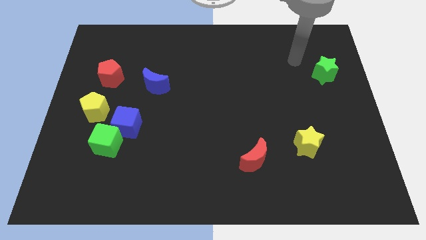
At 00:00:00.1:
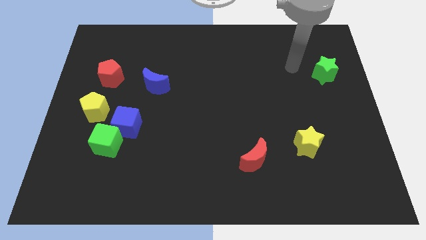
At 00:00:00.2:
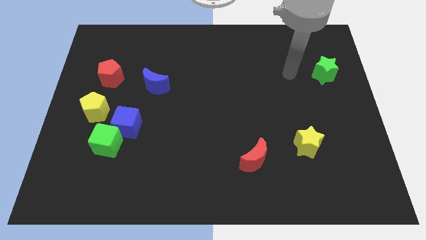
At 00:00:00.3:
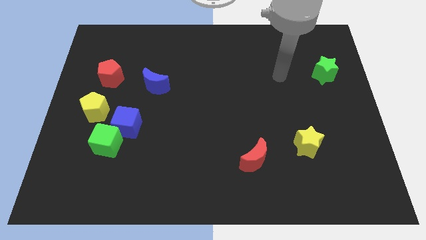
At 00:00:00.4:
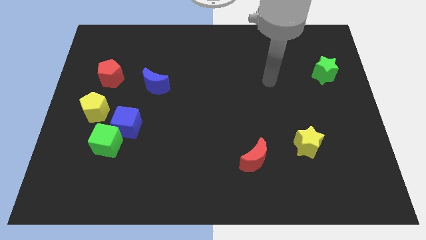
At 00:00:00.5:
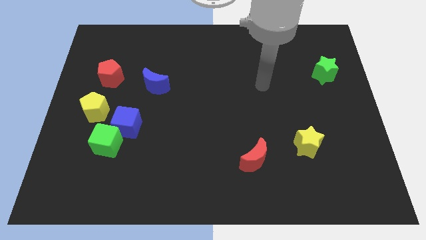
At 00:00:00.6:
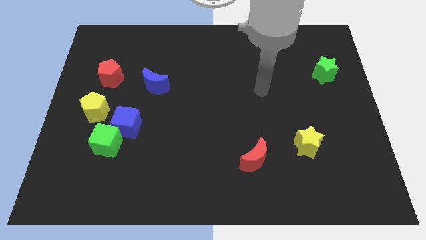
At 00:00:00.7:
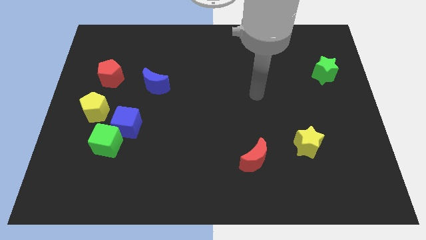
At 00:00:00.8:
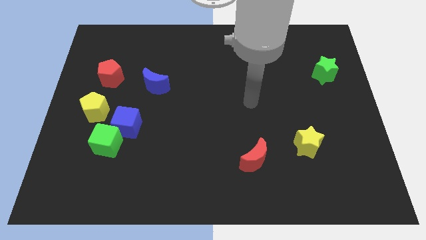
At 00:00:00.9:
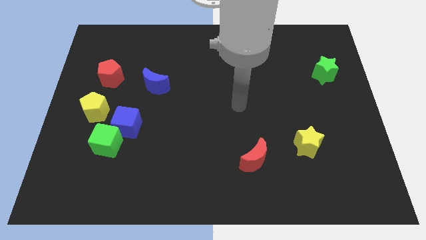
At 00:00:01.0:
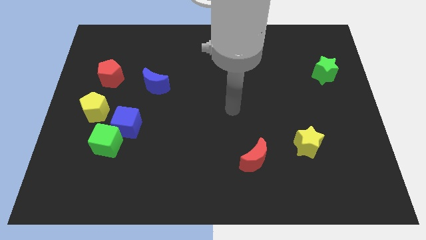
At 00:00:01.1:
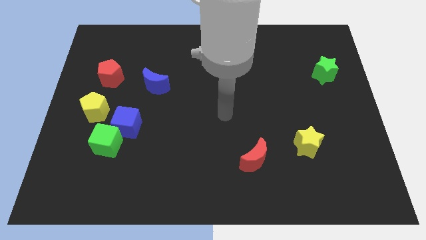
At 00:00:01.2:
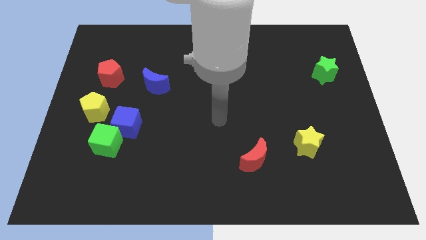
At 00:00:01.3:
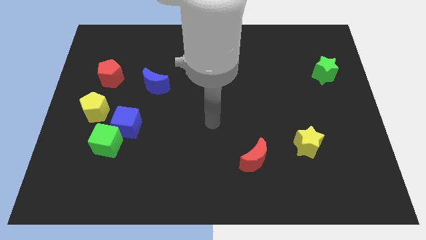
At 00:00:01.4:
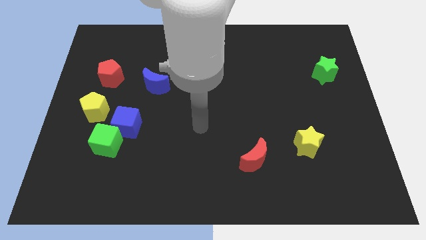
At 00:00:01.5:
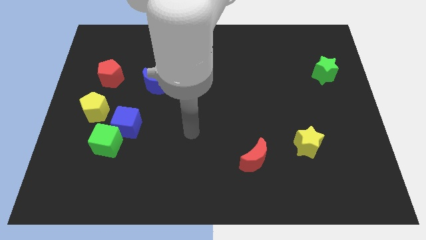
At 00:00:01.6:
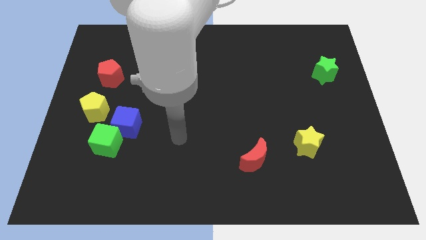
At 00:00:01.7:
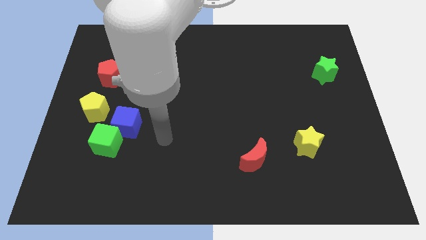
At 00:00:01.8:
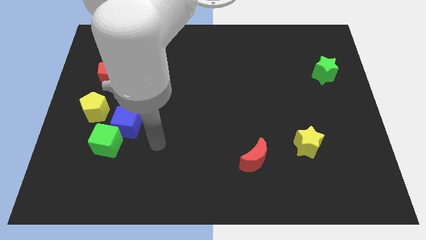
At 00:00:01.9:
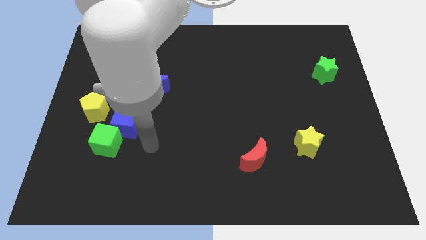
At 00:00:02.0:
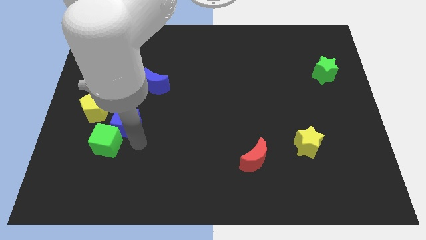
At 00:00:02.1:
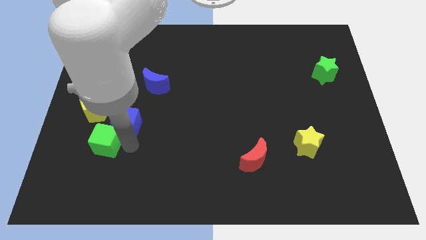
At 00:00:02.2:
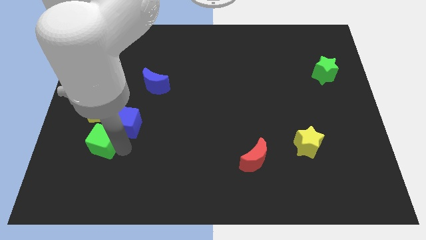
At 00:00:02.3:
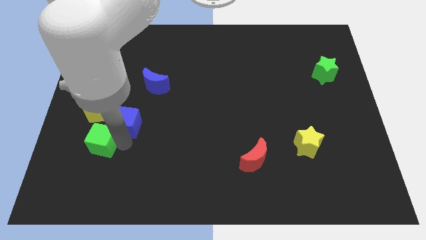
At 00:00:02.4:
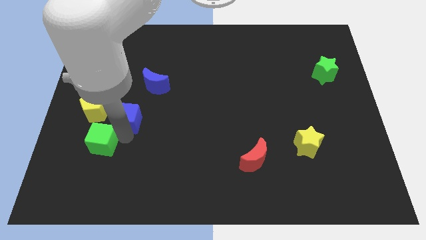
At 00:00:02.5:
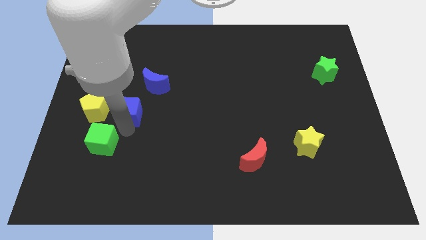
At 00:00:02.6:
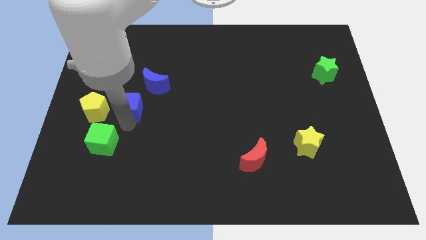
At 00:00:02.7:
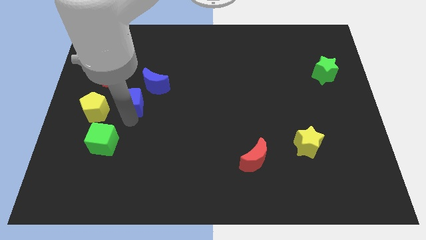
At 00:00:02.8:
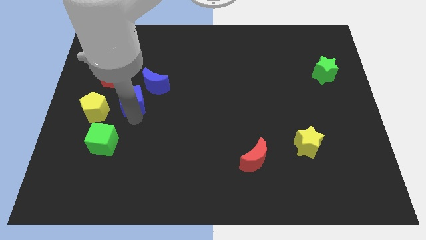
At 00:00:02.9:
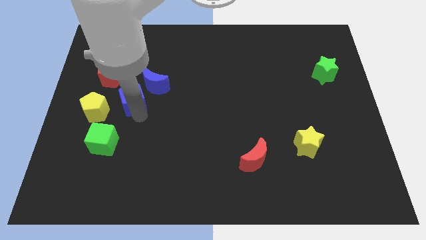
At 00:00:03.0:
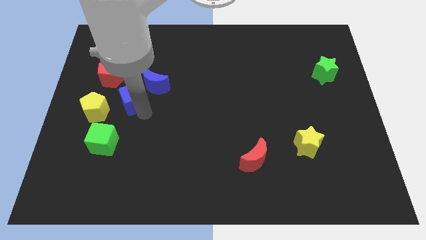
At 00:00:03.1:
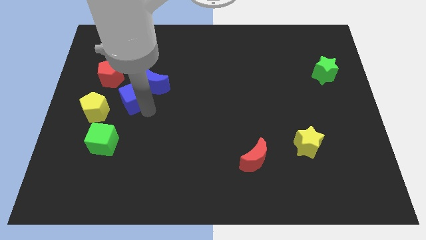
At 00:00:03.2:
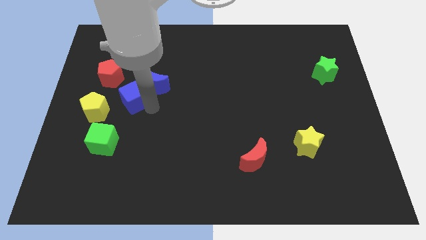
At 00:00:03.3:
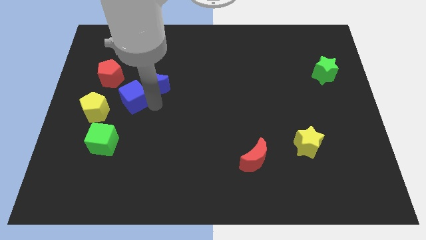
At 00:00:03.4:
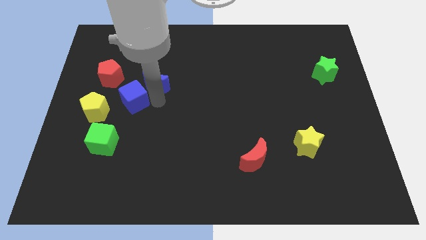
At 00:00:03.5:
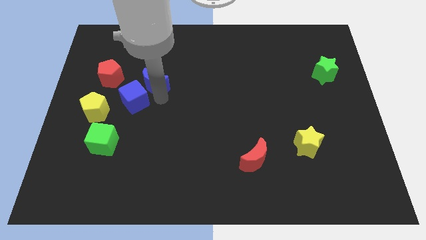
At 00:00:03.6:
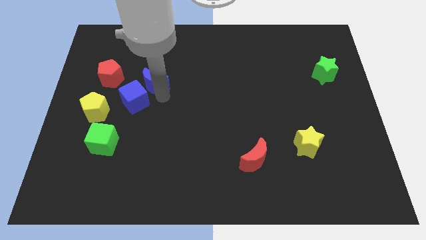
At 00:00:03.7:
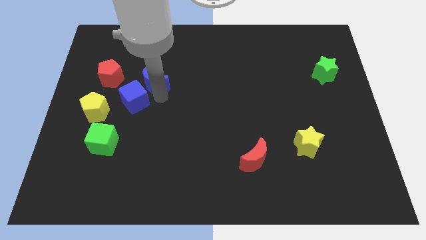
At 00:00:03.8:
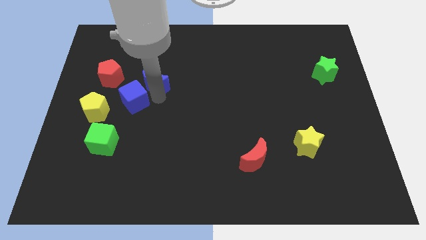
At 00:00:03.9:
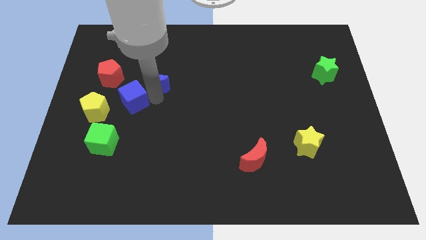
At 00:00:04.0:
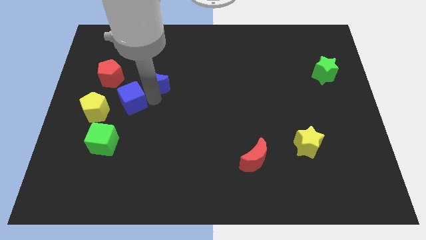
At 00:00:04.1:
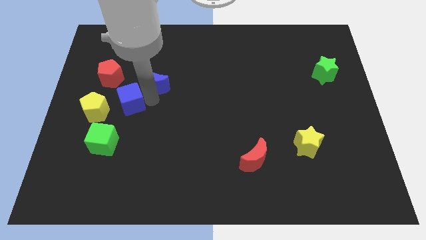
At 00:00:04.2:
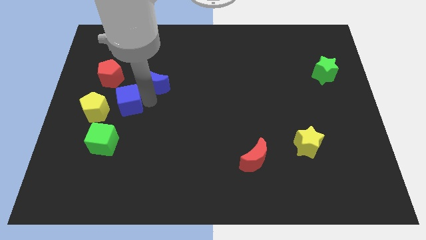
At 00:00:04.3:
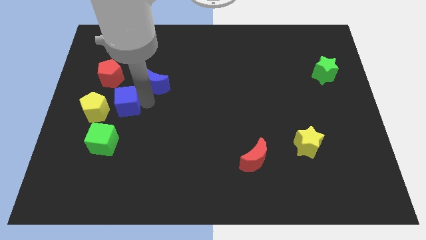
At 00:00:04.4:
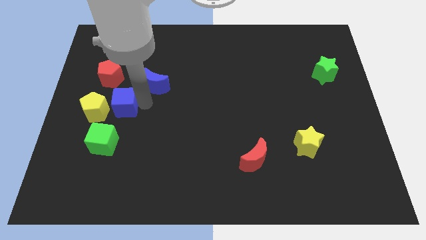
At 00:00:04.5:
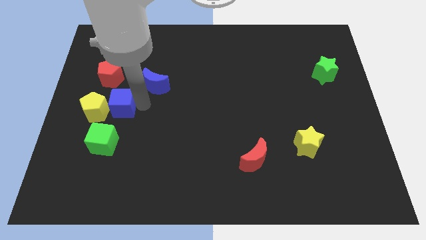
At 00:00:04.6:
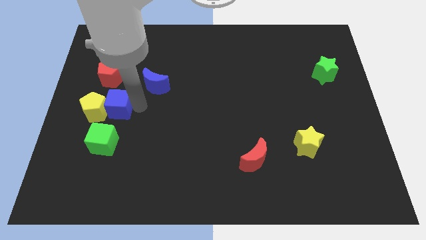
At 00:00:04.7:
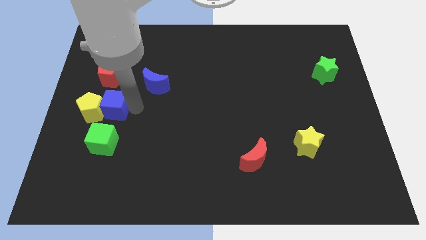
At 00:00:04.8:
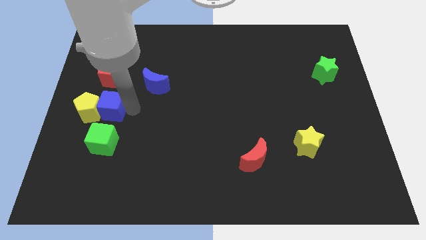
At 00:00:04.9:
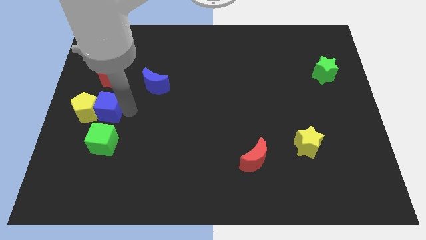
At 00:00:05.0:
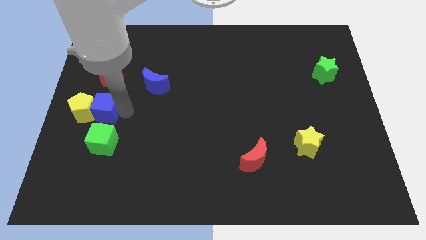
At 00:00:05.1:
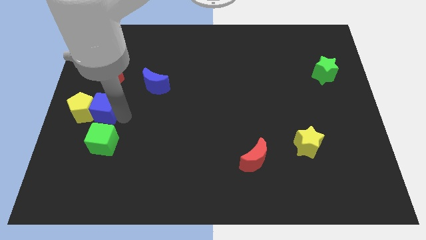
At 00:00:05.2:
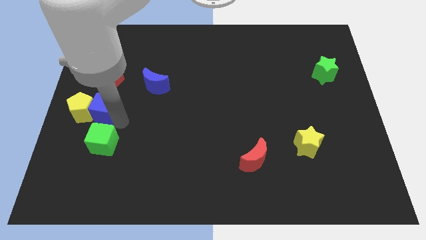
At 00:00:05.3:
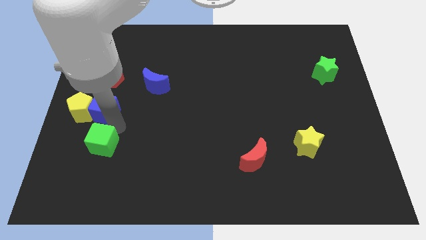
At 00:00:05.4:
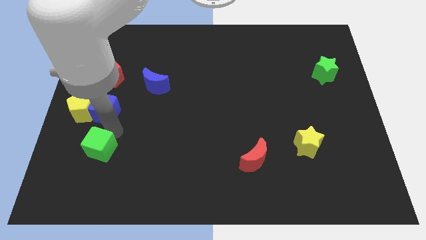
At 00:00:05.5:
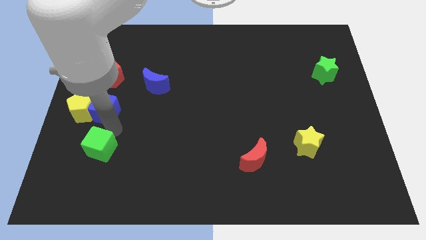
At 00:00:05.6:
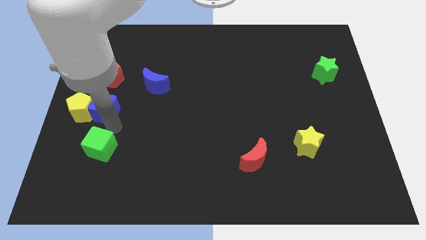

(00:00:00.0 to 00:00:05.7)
slide the blue cube to the left side of the board

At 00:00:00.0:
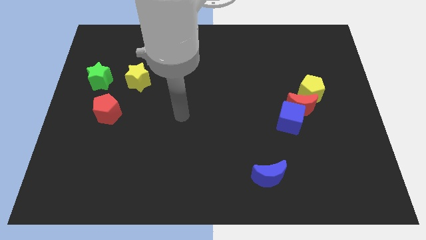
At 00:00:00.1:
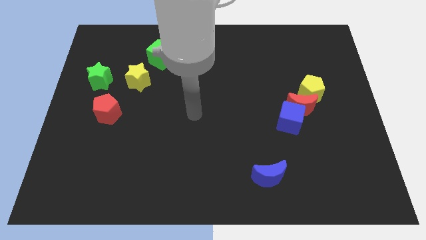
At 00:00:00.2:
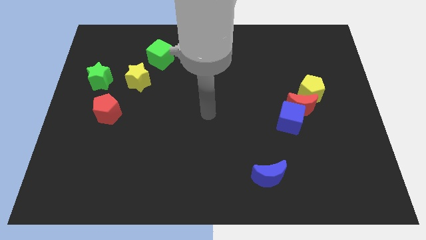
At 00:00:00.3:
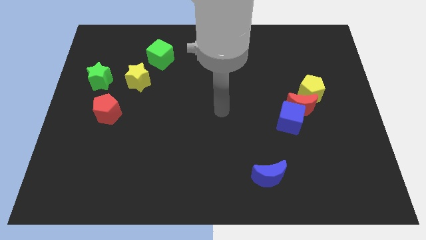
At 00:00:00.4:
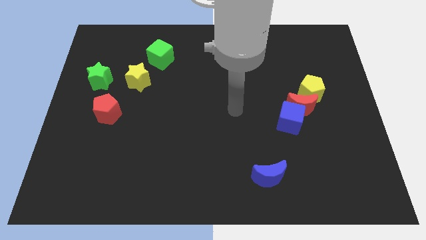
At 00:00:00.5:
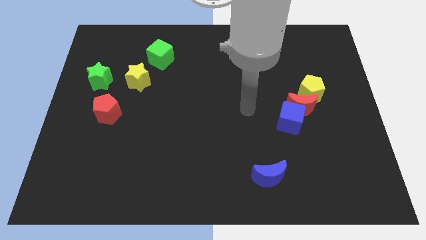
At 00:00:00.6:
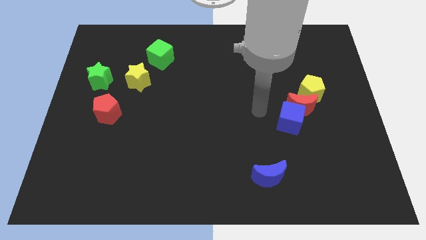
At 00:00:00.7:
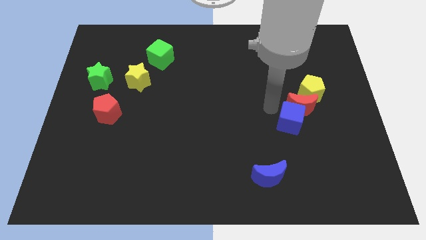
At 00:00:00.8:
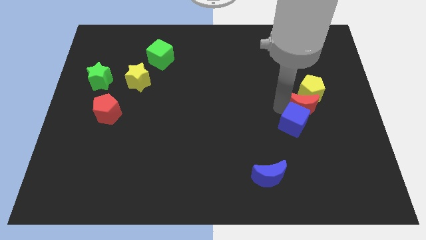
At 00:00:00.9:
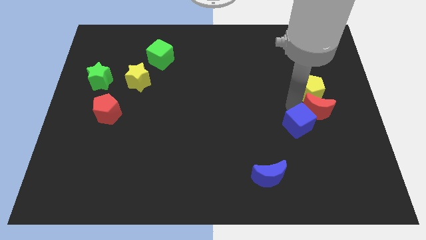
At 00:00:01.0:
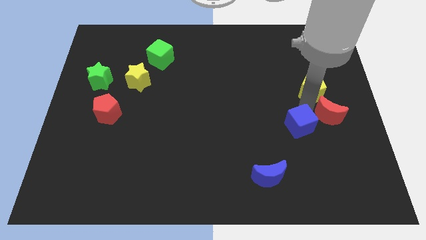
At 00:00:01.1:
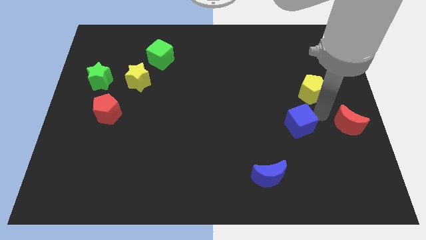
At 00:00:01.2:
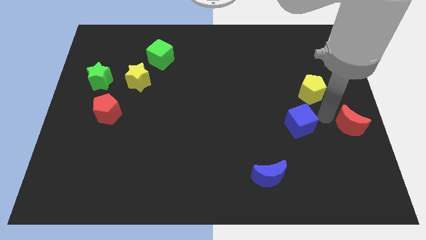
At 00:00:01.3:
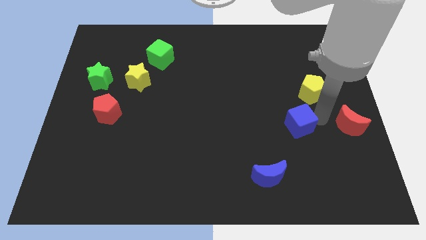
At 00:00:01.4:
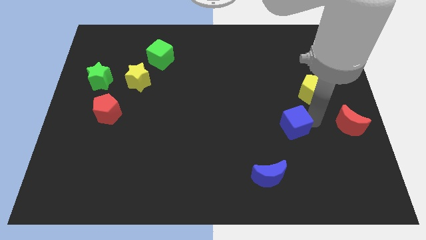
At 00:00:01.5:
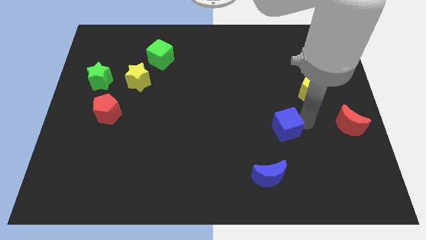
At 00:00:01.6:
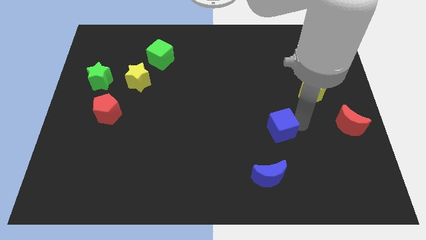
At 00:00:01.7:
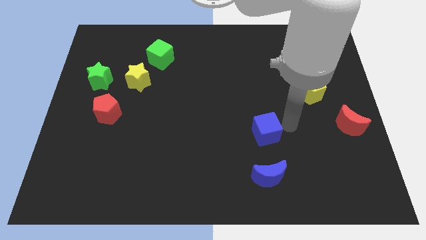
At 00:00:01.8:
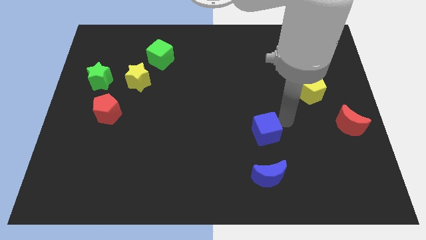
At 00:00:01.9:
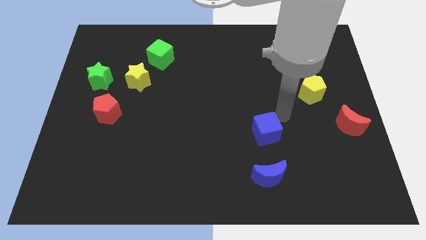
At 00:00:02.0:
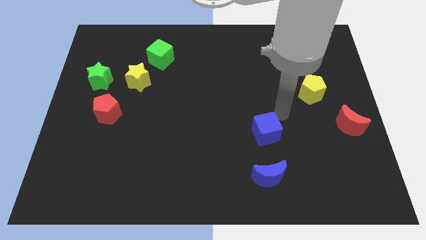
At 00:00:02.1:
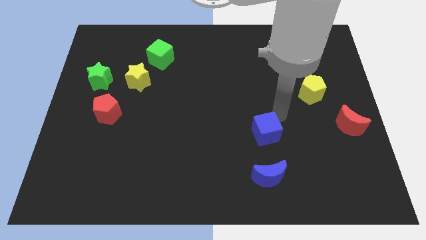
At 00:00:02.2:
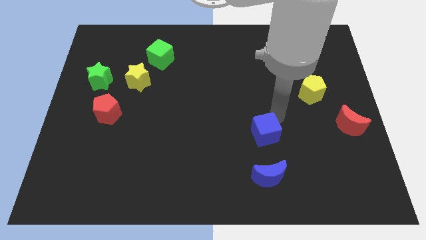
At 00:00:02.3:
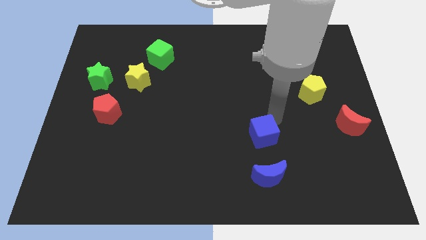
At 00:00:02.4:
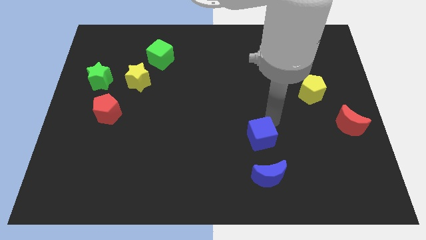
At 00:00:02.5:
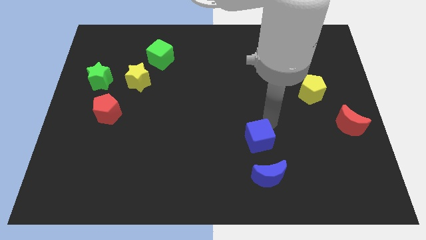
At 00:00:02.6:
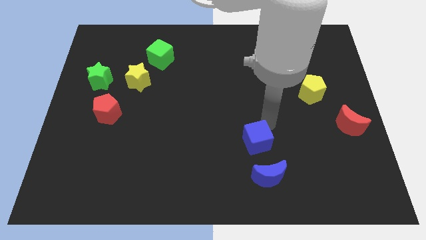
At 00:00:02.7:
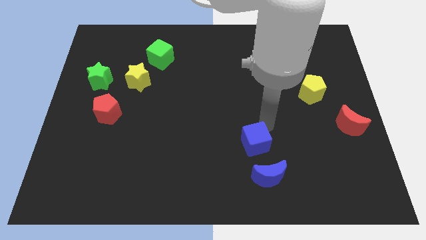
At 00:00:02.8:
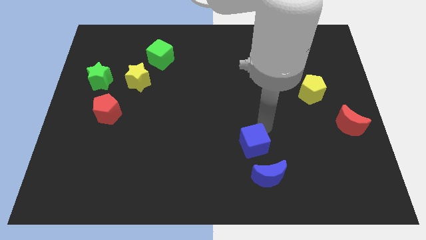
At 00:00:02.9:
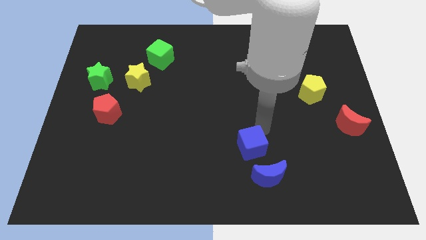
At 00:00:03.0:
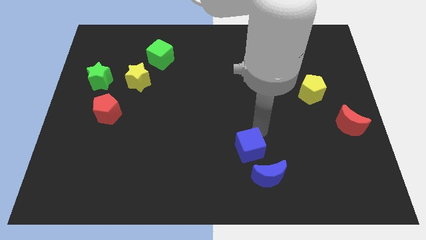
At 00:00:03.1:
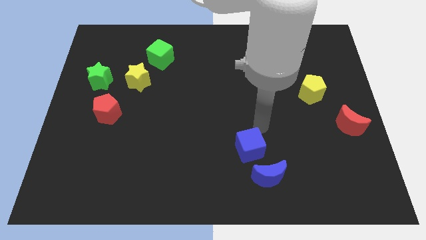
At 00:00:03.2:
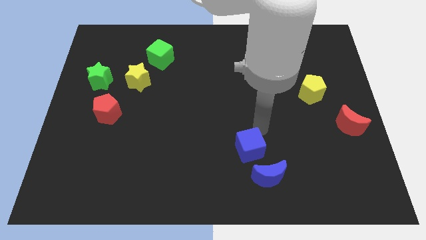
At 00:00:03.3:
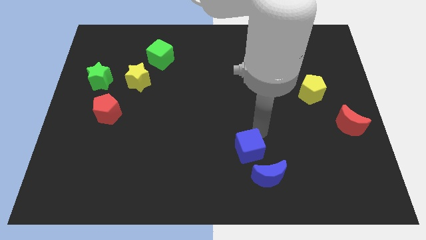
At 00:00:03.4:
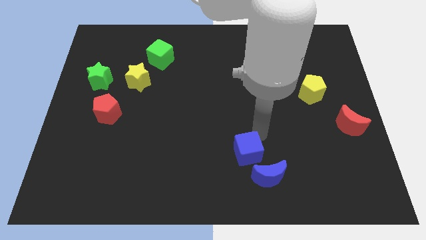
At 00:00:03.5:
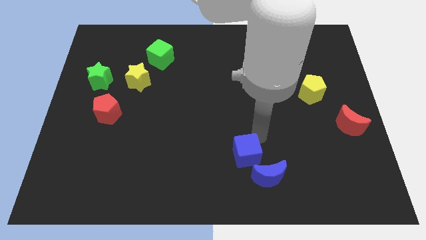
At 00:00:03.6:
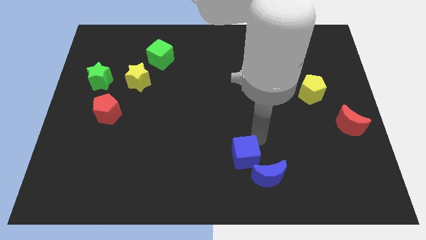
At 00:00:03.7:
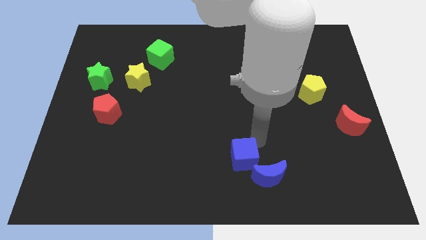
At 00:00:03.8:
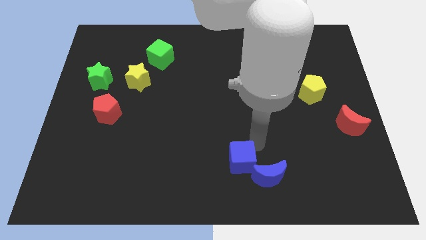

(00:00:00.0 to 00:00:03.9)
move the blue cube to the bottom side
